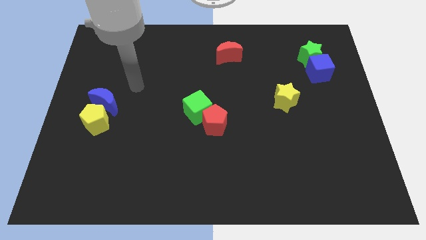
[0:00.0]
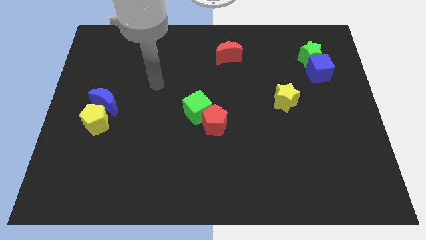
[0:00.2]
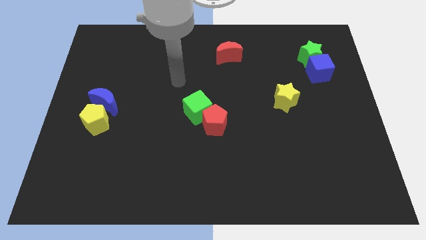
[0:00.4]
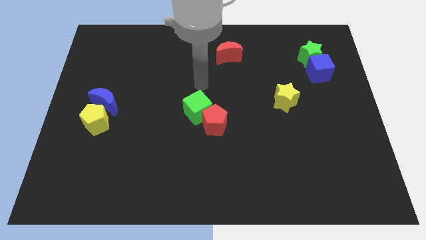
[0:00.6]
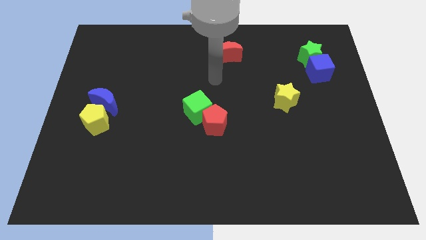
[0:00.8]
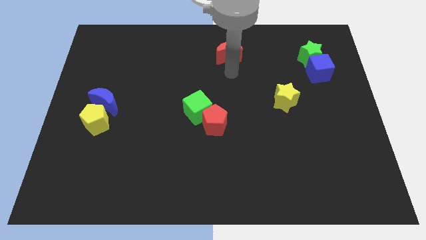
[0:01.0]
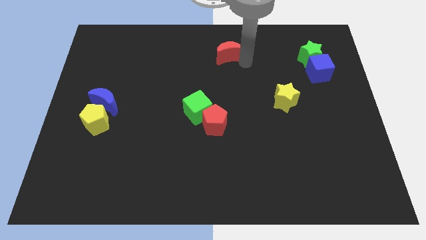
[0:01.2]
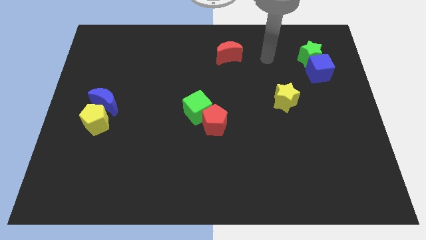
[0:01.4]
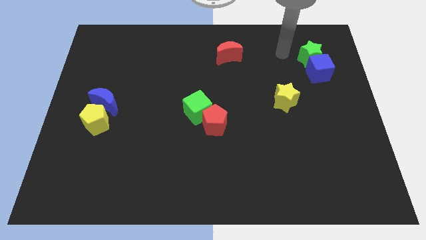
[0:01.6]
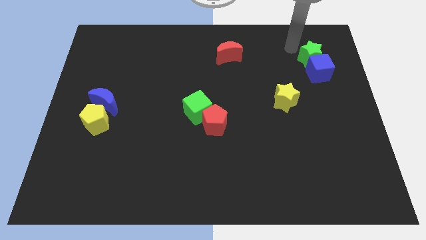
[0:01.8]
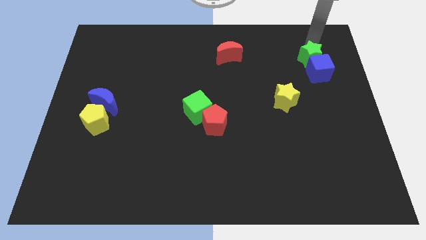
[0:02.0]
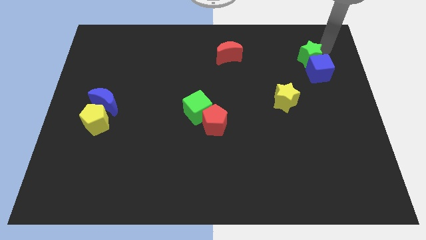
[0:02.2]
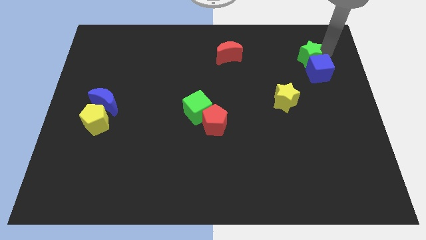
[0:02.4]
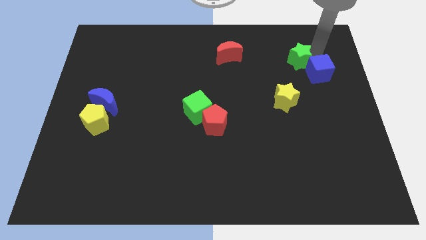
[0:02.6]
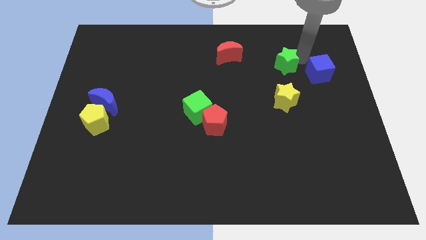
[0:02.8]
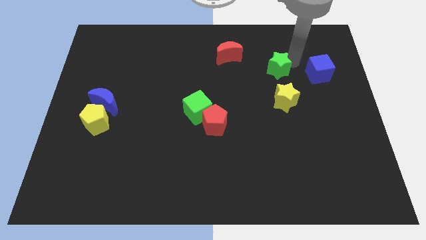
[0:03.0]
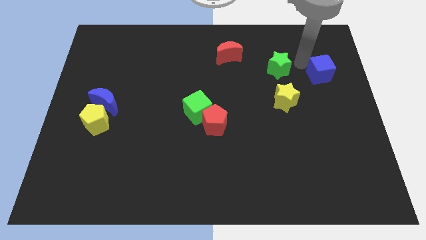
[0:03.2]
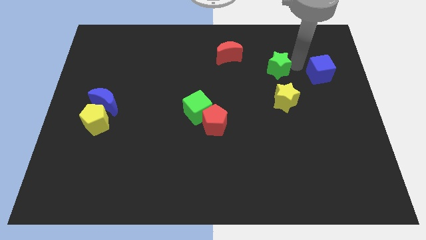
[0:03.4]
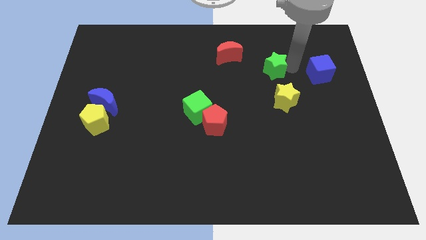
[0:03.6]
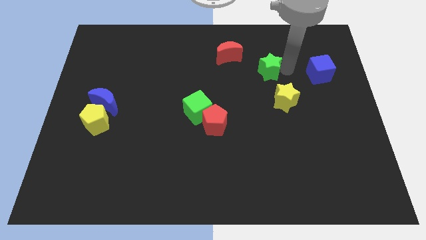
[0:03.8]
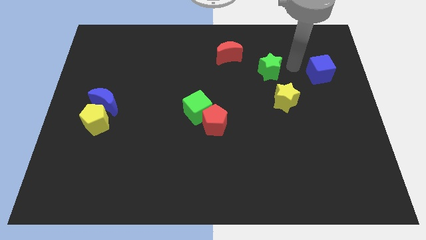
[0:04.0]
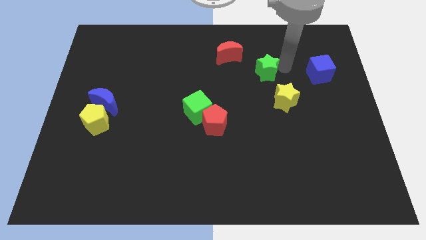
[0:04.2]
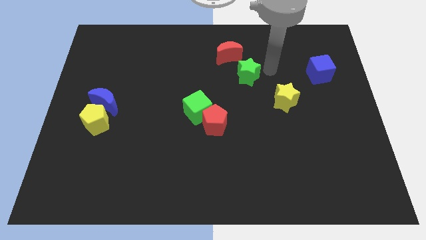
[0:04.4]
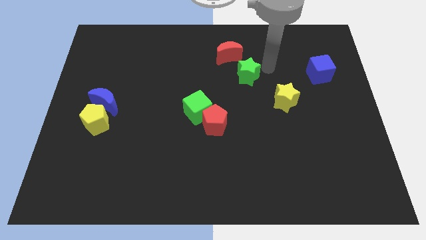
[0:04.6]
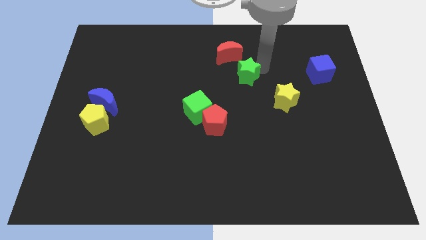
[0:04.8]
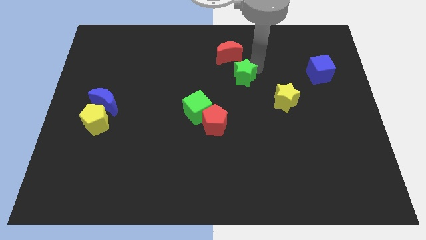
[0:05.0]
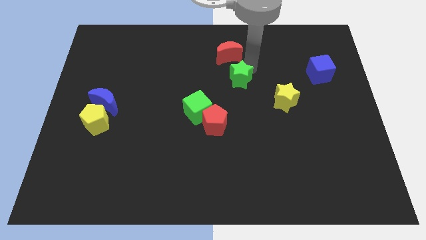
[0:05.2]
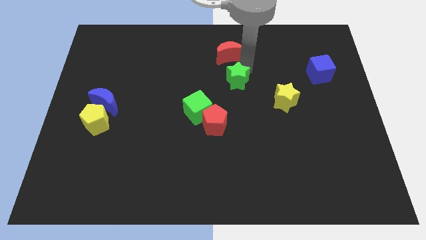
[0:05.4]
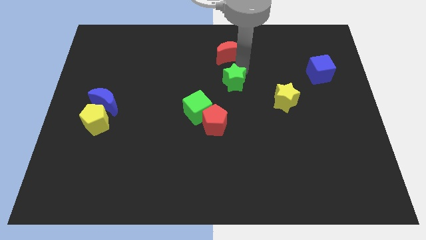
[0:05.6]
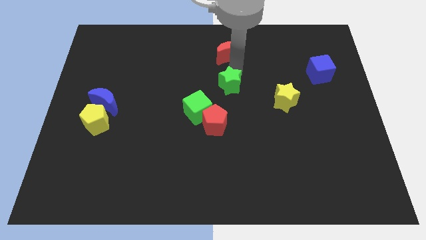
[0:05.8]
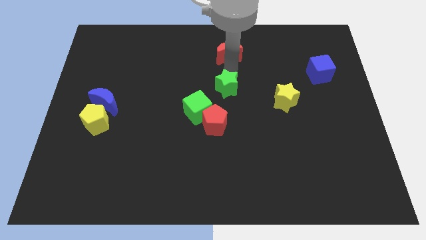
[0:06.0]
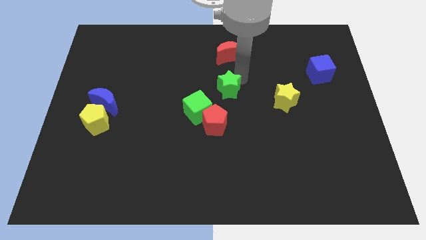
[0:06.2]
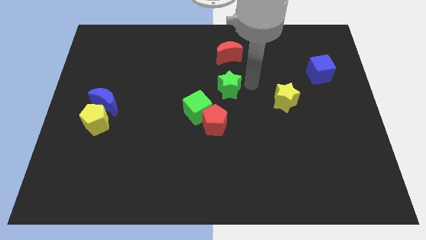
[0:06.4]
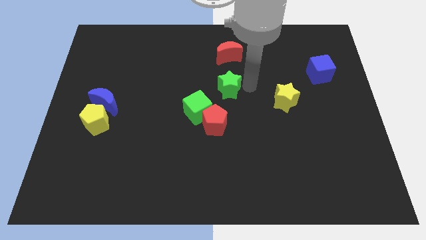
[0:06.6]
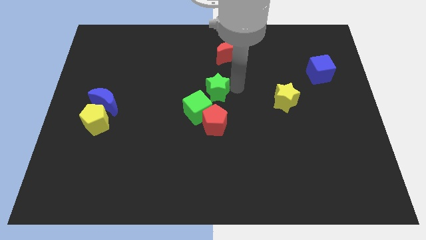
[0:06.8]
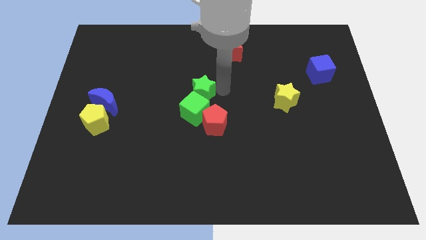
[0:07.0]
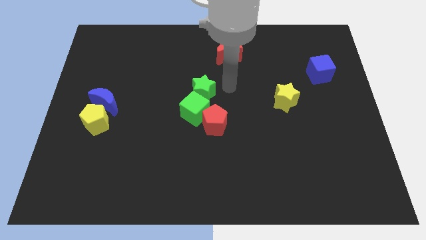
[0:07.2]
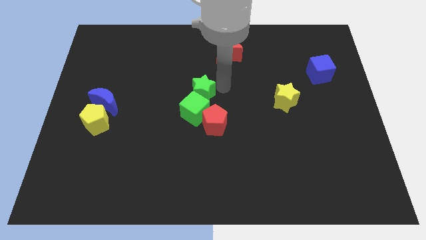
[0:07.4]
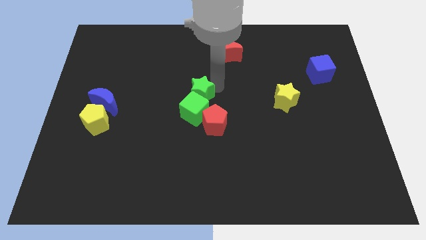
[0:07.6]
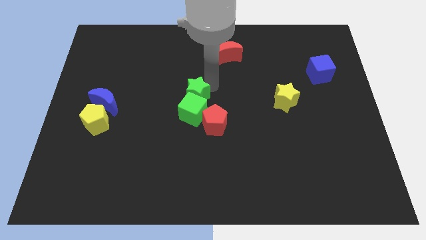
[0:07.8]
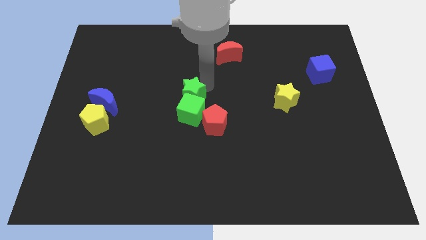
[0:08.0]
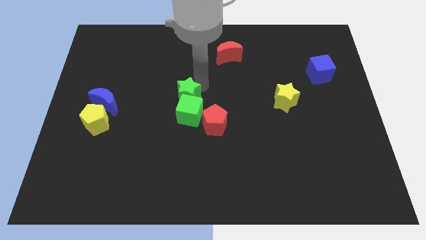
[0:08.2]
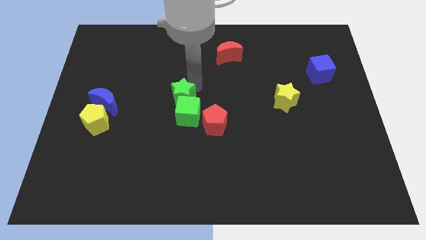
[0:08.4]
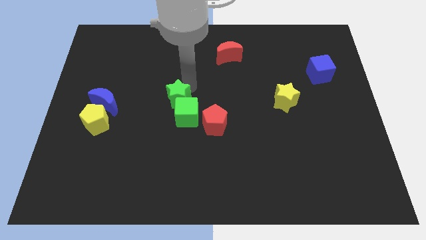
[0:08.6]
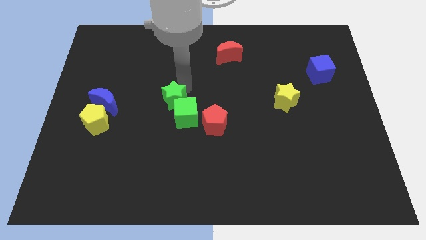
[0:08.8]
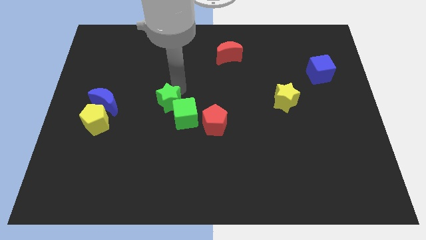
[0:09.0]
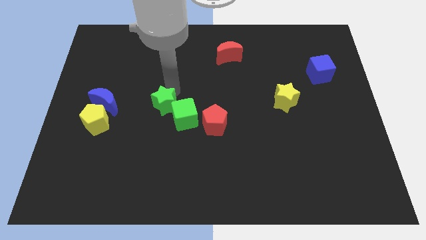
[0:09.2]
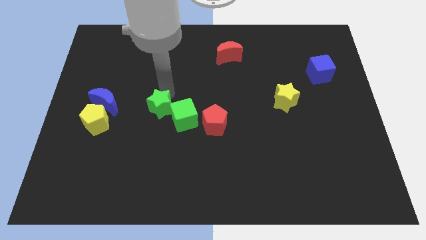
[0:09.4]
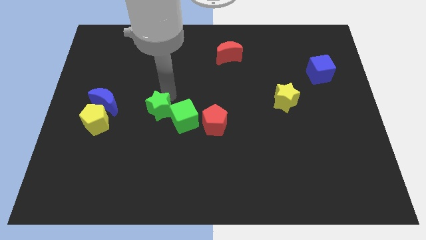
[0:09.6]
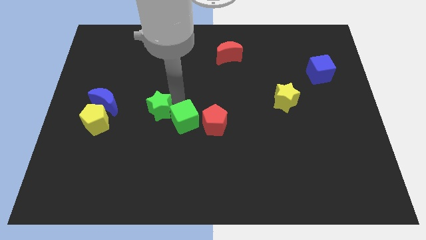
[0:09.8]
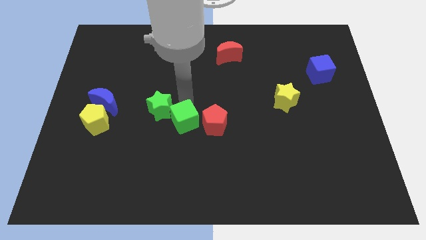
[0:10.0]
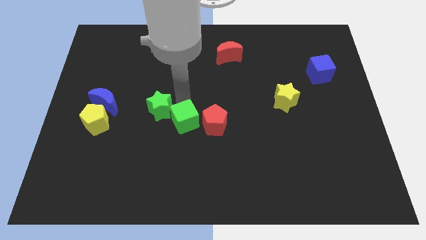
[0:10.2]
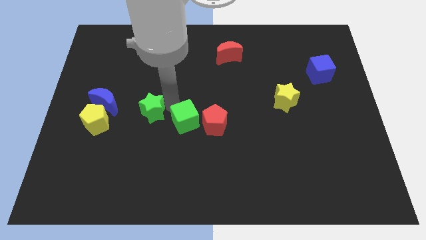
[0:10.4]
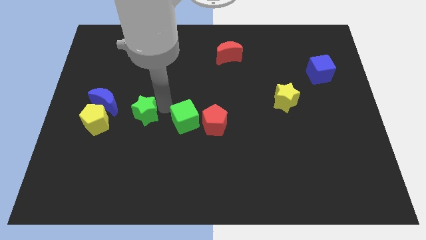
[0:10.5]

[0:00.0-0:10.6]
move the green star diagonally down and to the right of the blue moon

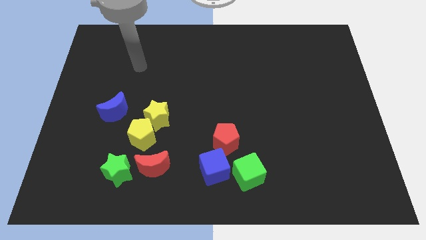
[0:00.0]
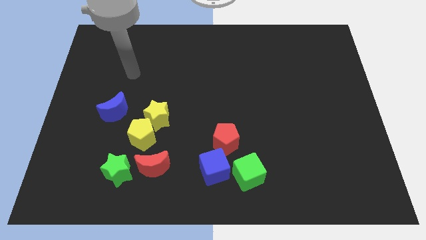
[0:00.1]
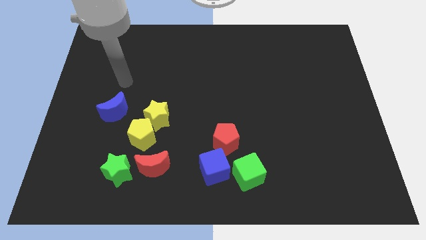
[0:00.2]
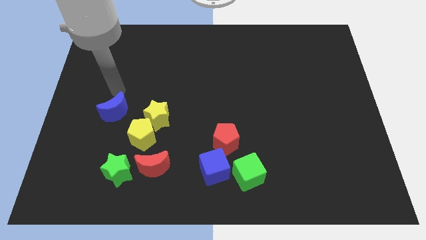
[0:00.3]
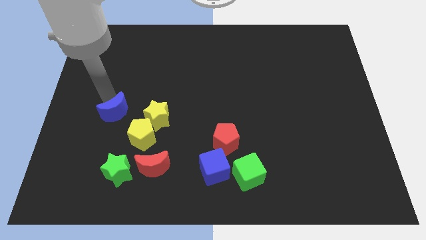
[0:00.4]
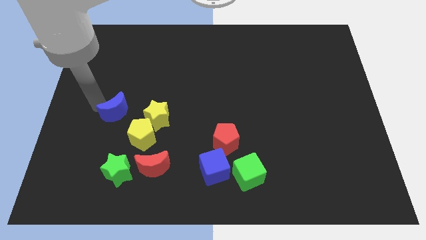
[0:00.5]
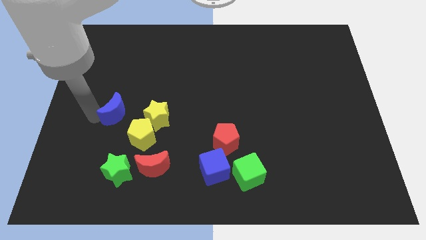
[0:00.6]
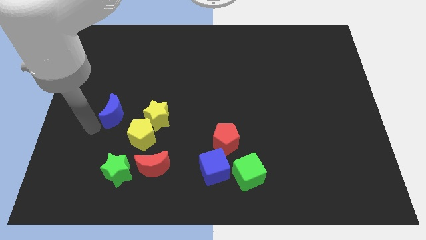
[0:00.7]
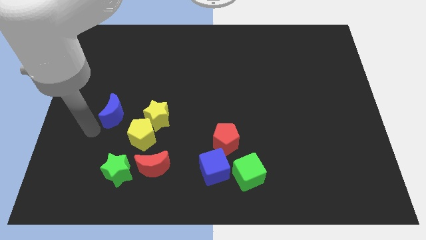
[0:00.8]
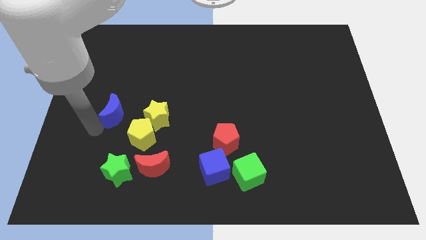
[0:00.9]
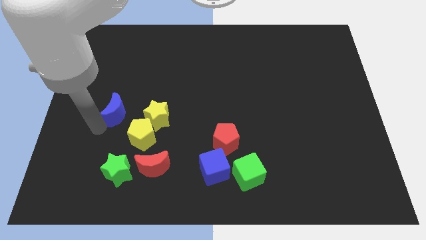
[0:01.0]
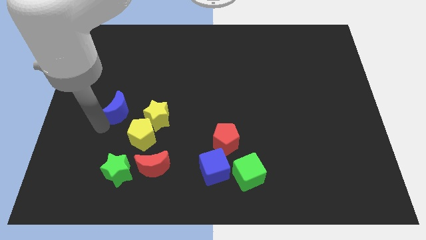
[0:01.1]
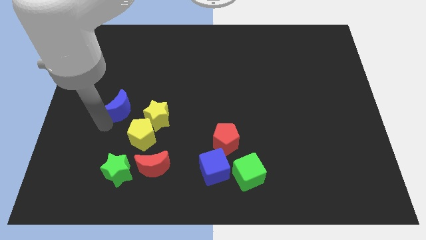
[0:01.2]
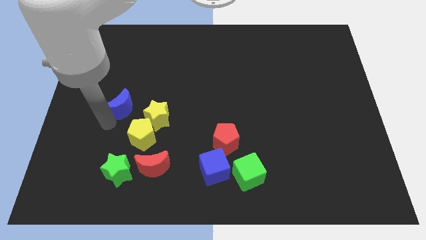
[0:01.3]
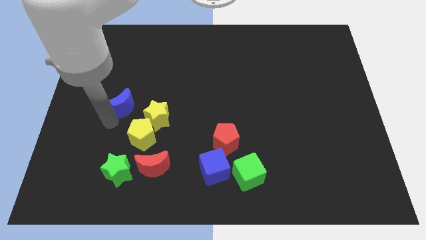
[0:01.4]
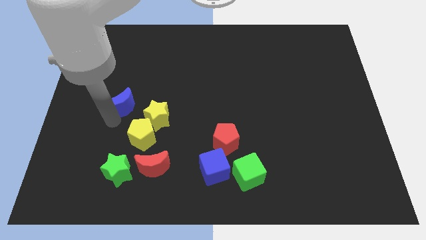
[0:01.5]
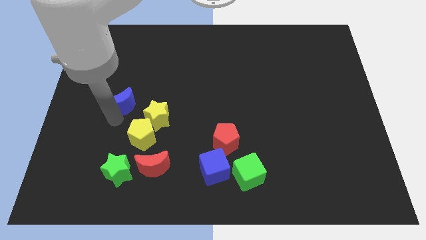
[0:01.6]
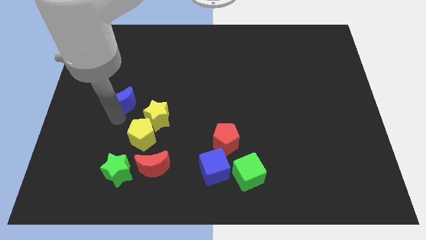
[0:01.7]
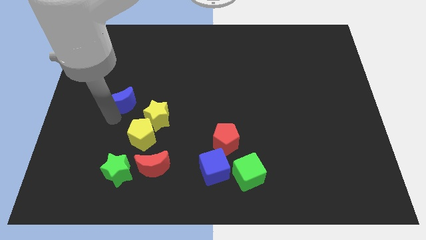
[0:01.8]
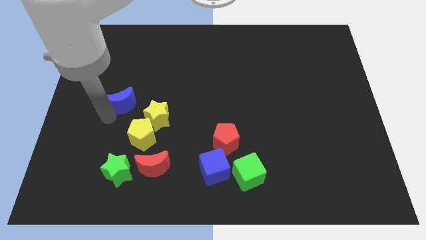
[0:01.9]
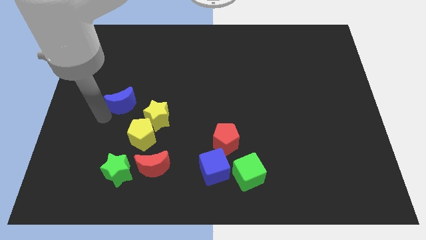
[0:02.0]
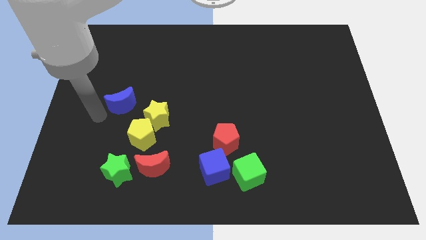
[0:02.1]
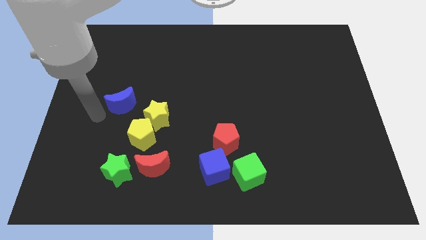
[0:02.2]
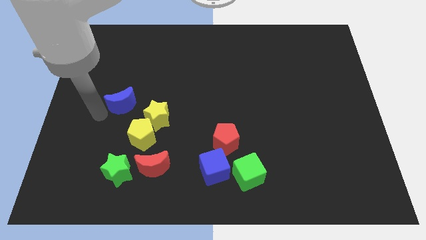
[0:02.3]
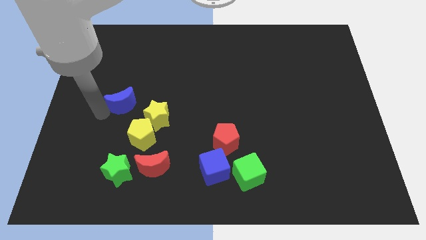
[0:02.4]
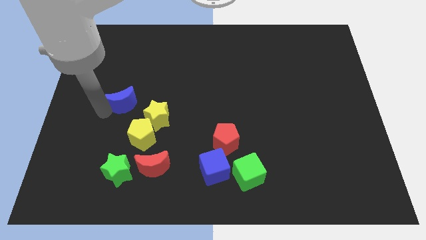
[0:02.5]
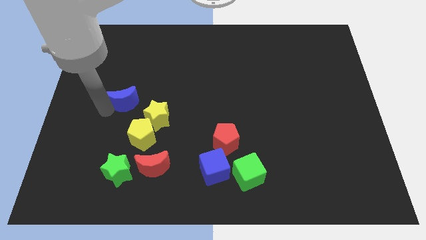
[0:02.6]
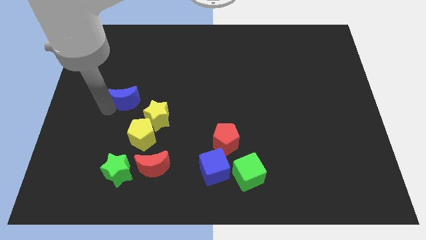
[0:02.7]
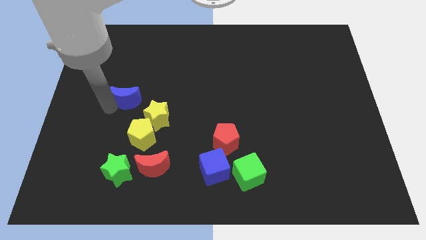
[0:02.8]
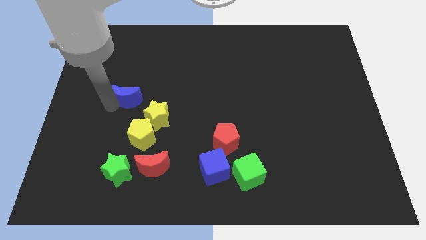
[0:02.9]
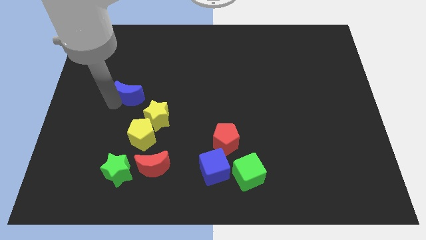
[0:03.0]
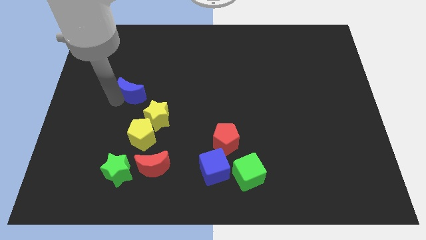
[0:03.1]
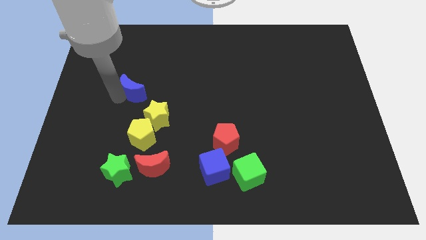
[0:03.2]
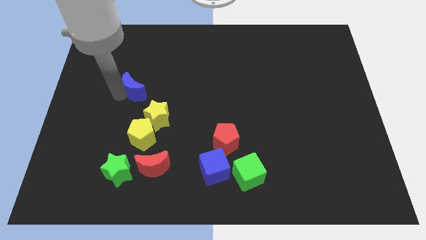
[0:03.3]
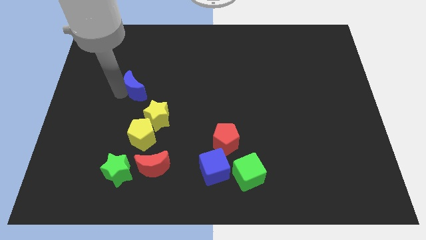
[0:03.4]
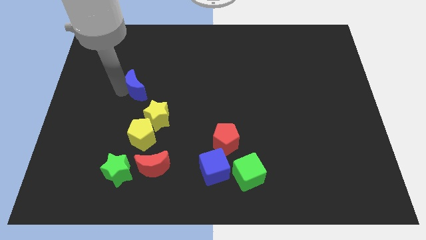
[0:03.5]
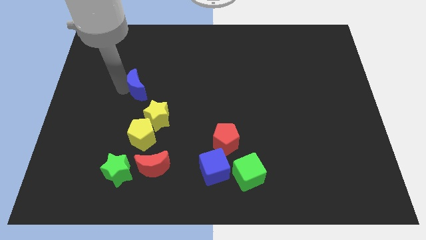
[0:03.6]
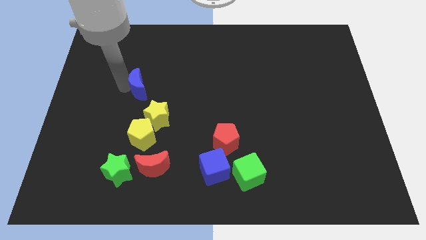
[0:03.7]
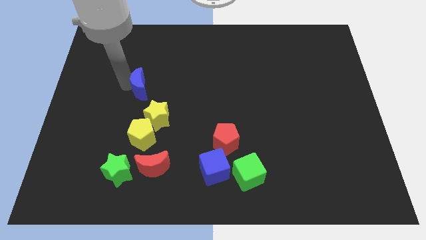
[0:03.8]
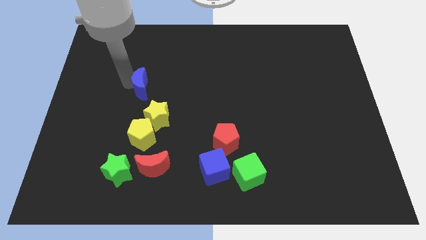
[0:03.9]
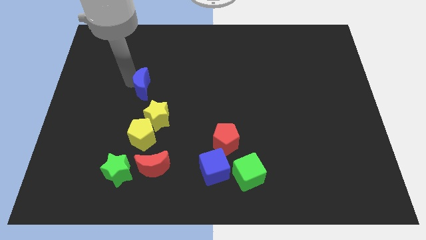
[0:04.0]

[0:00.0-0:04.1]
put the blue moon above the yellow star
